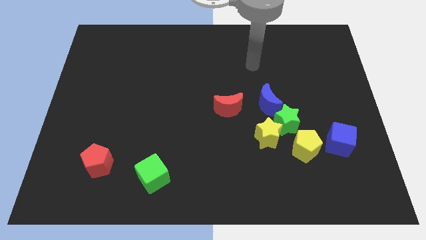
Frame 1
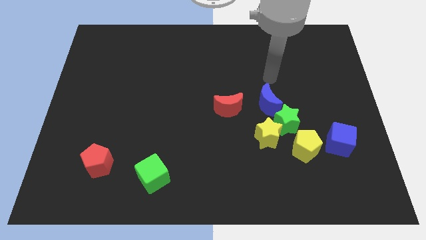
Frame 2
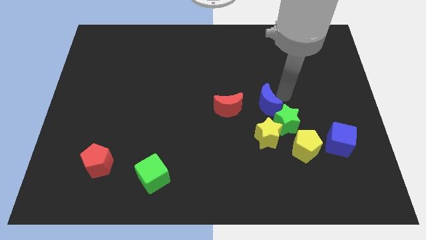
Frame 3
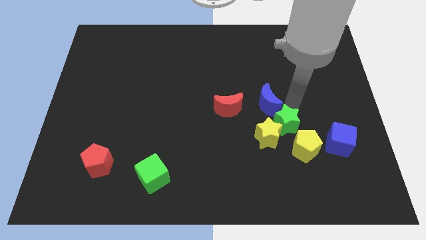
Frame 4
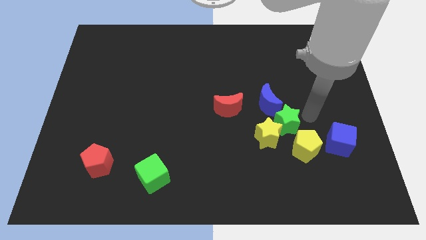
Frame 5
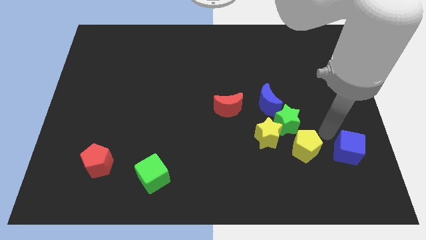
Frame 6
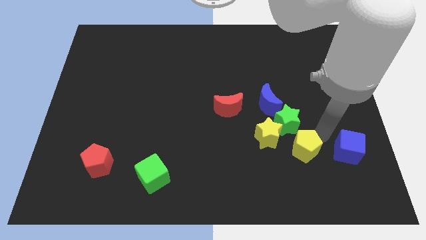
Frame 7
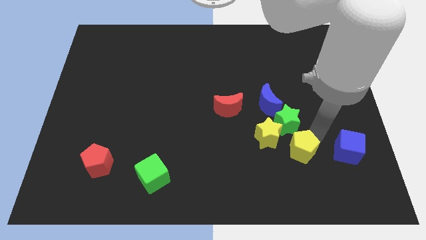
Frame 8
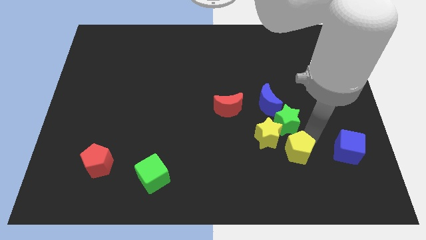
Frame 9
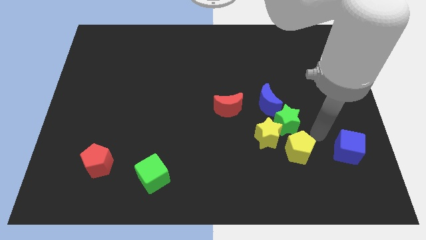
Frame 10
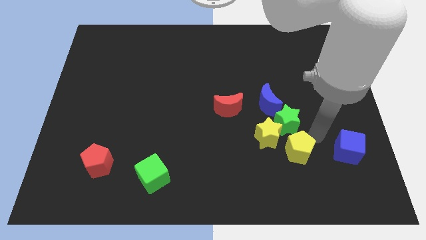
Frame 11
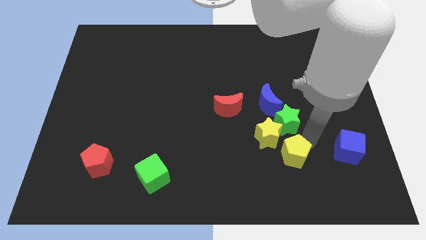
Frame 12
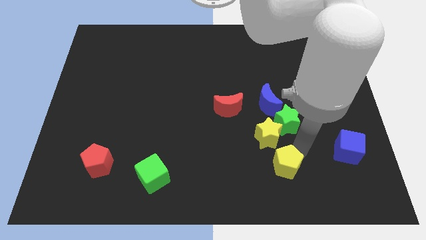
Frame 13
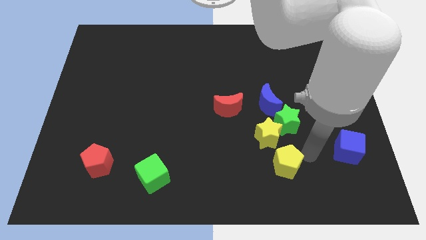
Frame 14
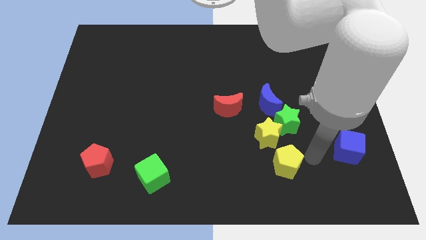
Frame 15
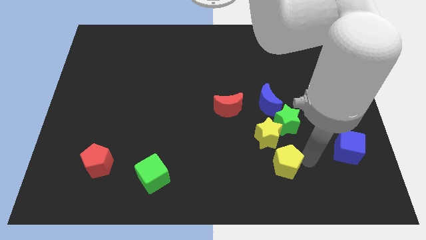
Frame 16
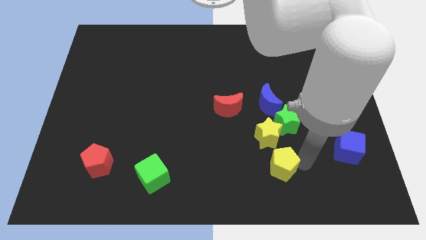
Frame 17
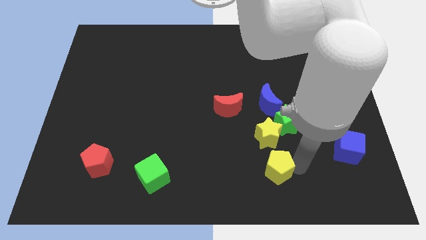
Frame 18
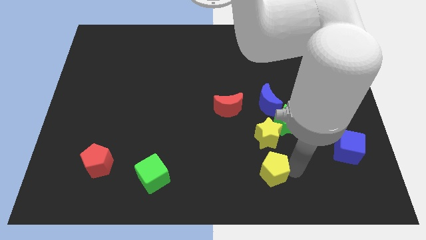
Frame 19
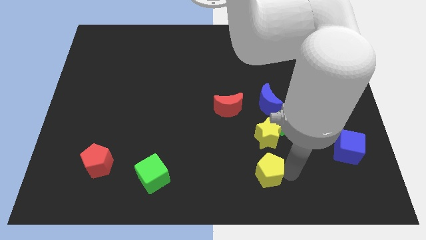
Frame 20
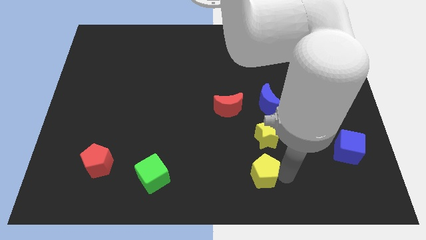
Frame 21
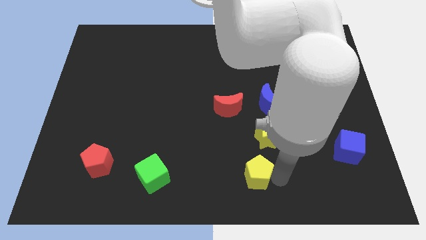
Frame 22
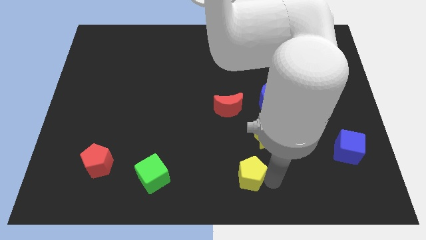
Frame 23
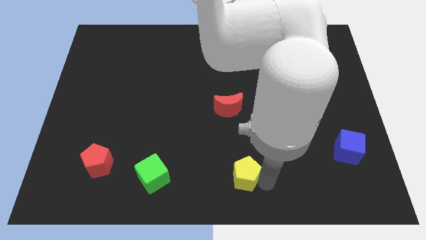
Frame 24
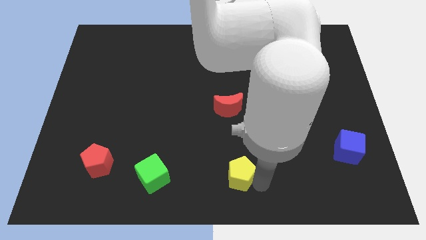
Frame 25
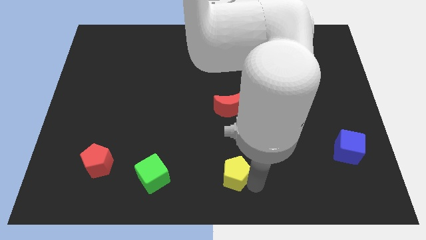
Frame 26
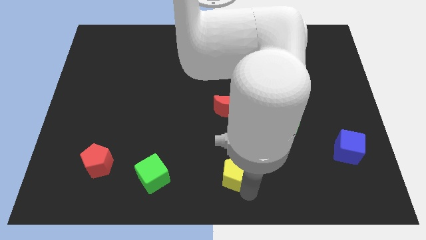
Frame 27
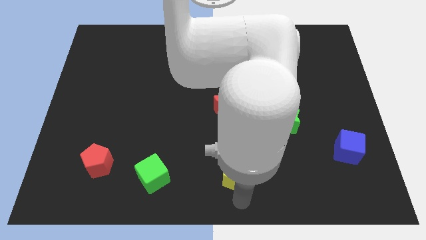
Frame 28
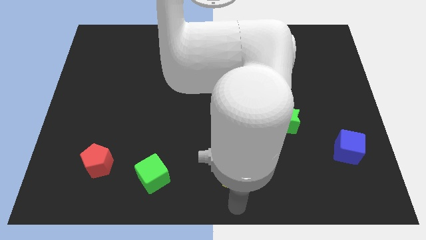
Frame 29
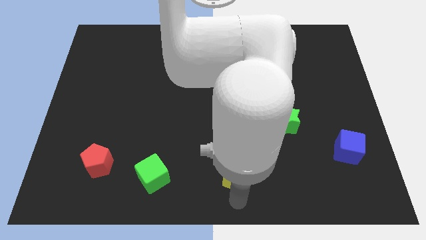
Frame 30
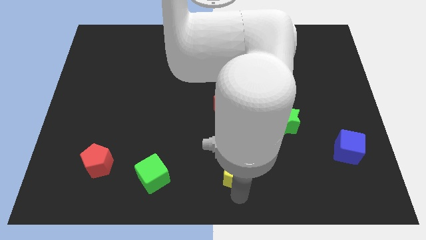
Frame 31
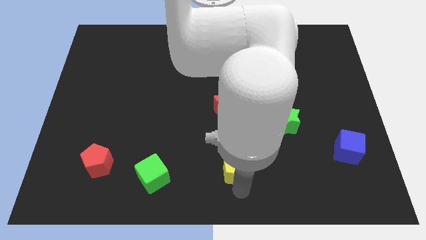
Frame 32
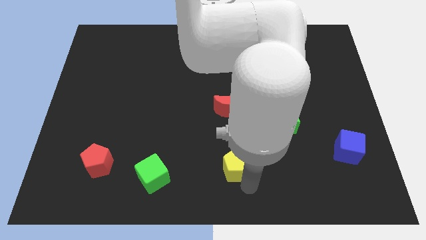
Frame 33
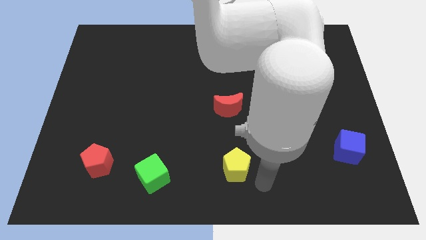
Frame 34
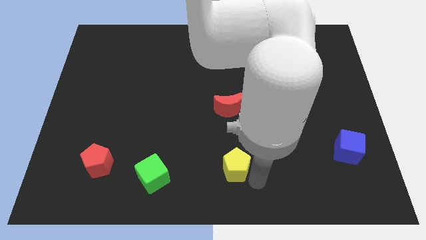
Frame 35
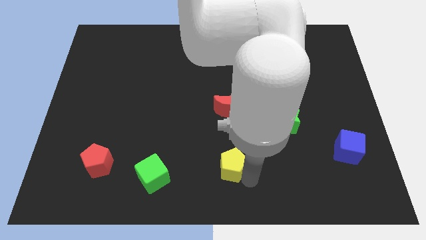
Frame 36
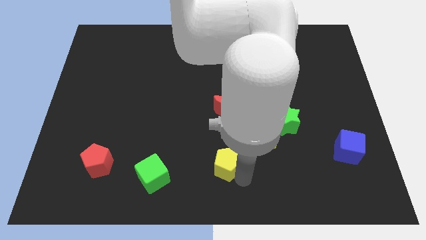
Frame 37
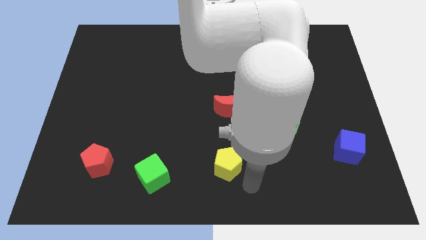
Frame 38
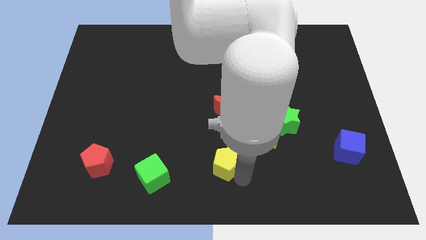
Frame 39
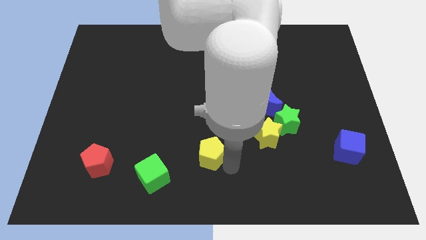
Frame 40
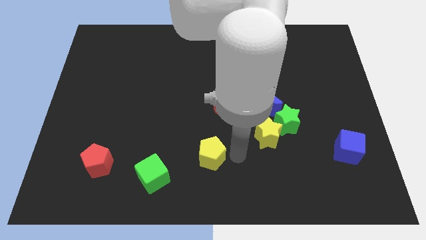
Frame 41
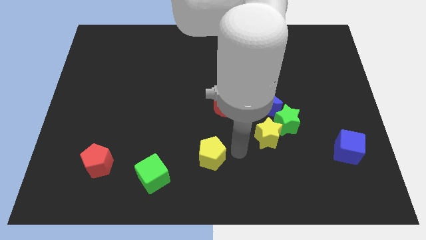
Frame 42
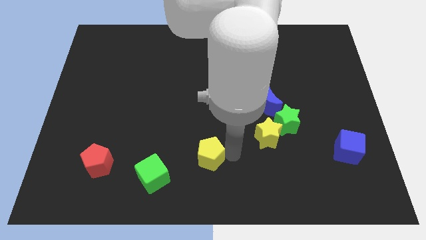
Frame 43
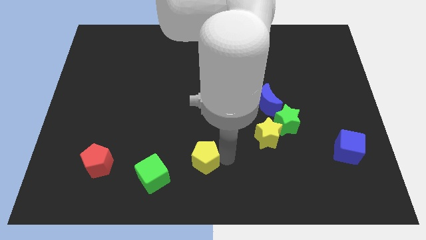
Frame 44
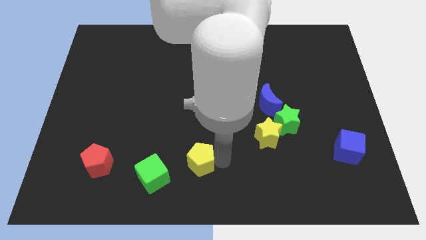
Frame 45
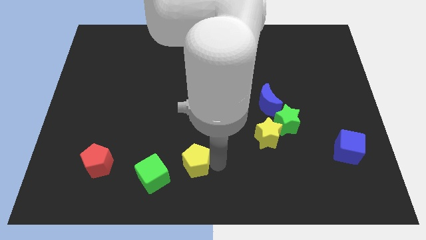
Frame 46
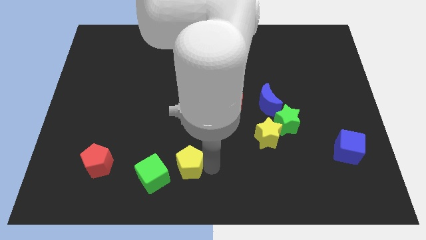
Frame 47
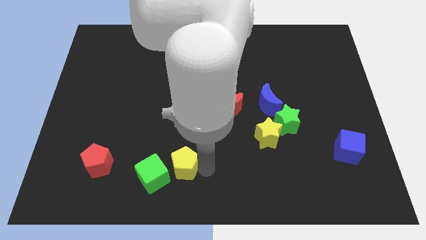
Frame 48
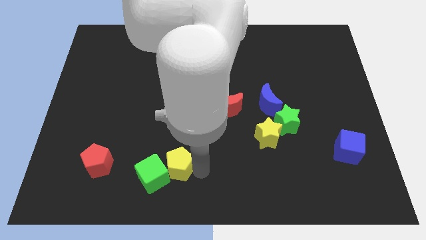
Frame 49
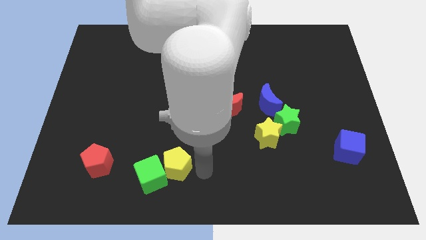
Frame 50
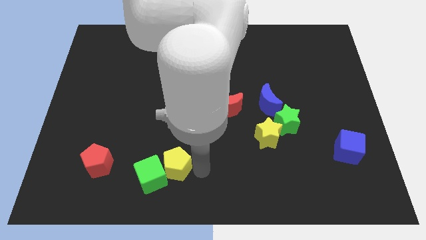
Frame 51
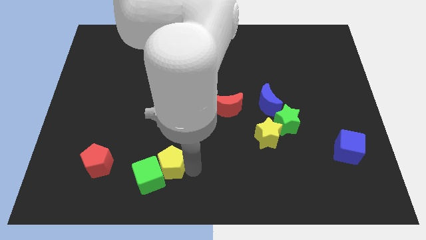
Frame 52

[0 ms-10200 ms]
move the yellow pentagon to the right of the red pentagon

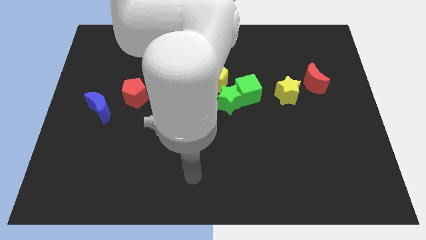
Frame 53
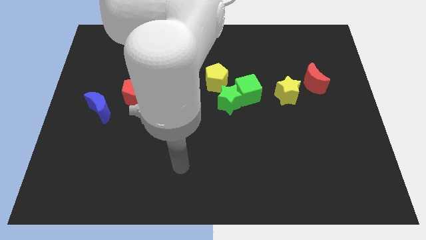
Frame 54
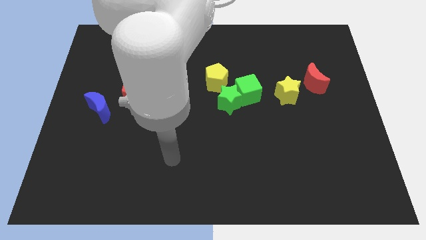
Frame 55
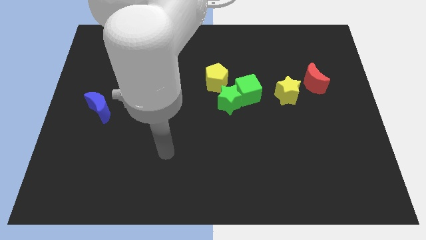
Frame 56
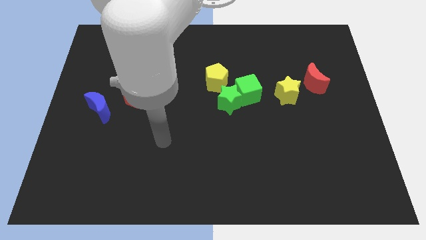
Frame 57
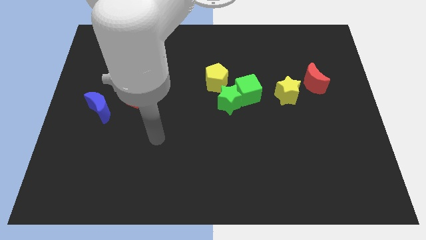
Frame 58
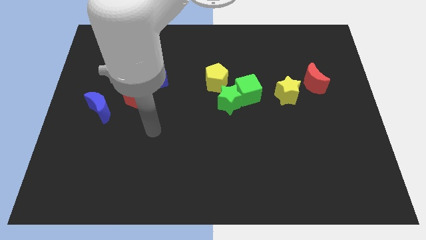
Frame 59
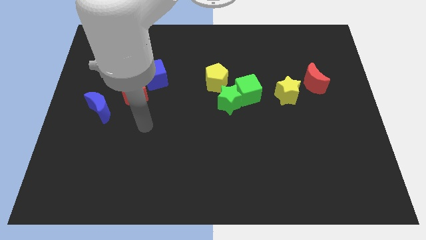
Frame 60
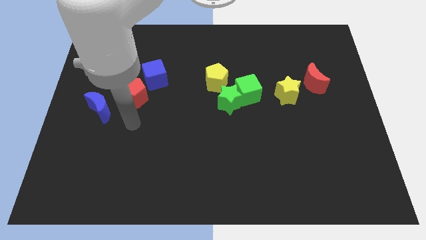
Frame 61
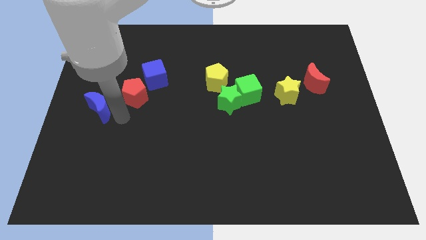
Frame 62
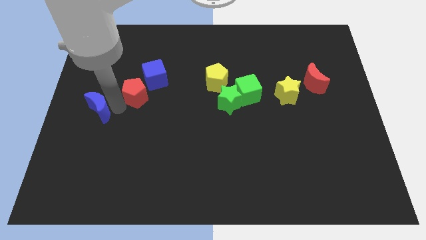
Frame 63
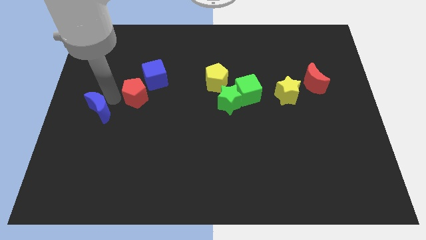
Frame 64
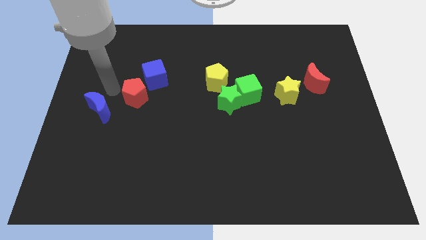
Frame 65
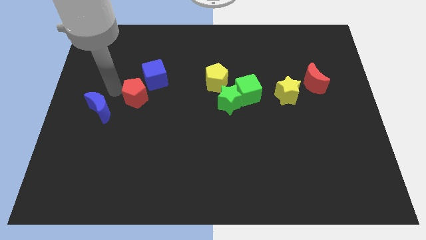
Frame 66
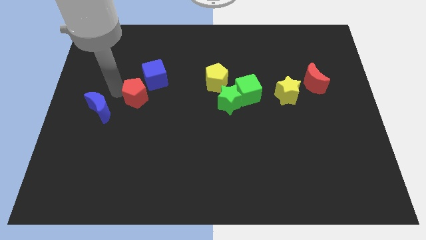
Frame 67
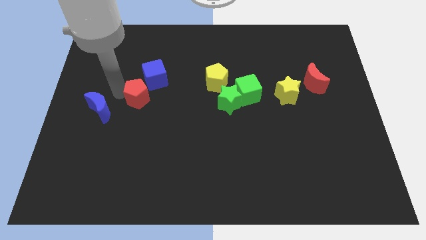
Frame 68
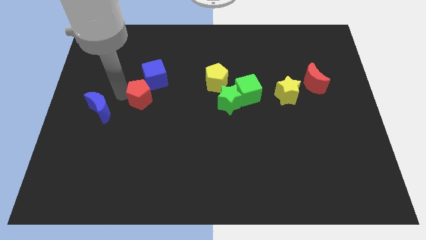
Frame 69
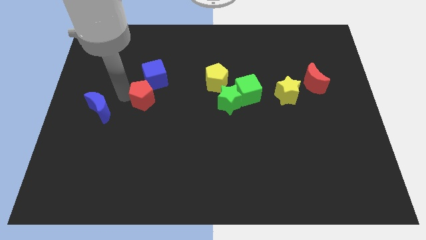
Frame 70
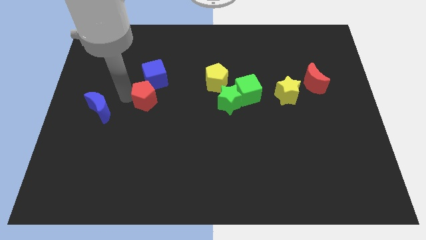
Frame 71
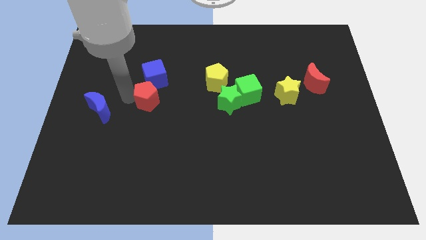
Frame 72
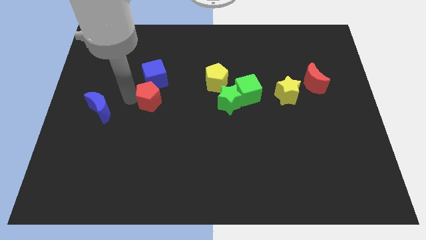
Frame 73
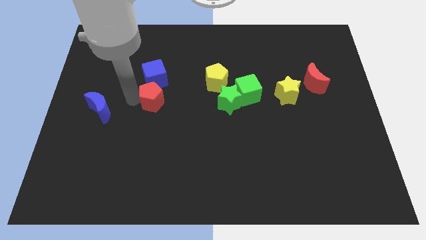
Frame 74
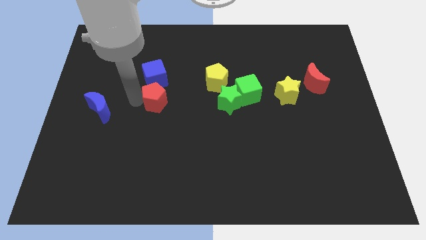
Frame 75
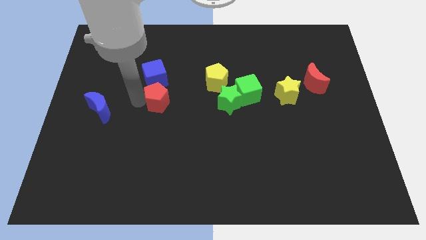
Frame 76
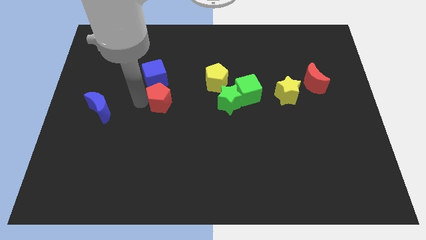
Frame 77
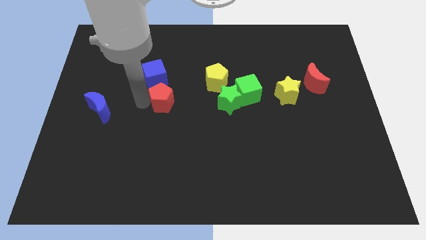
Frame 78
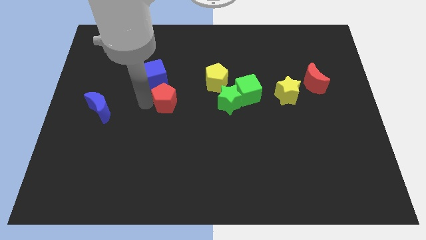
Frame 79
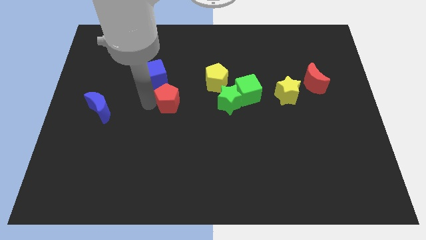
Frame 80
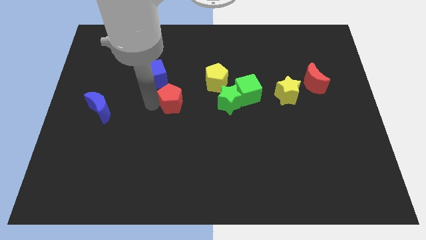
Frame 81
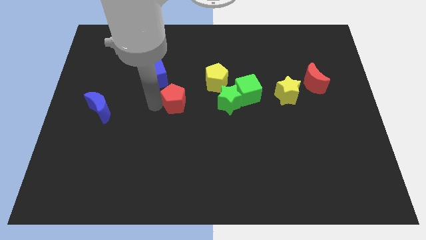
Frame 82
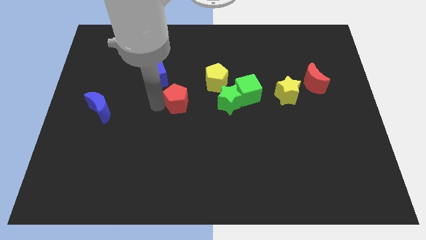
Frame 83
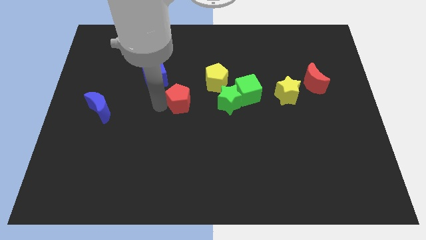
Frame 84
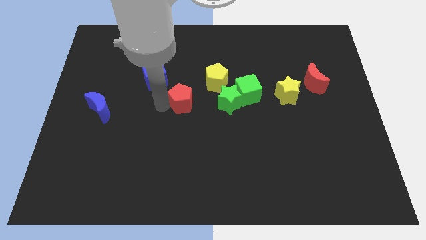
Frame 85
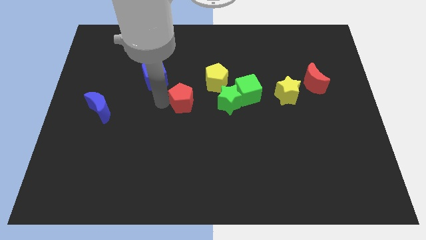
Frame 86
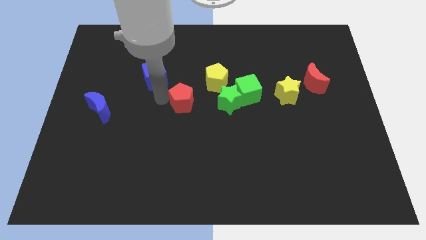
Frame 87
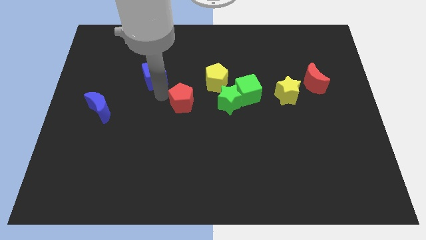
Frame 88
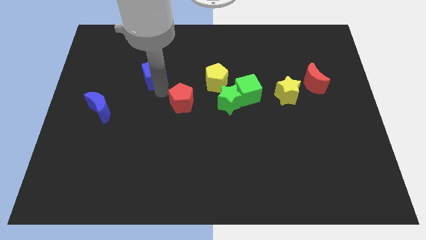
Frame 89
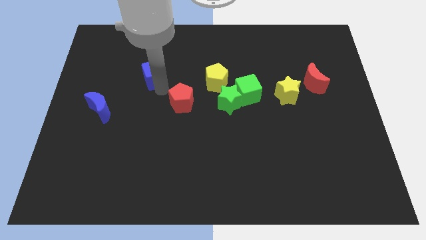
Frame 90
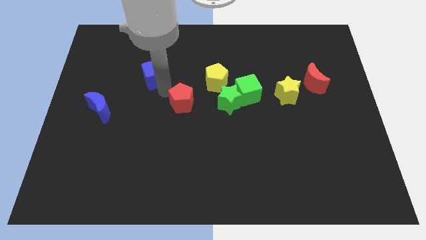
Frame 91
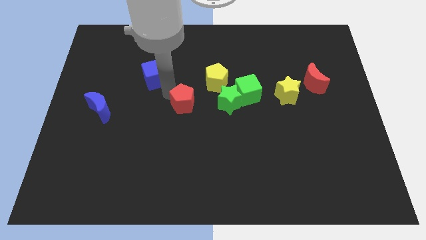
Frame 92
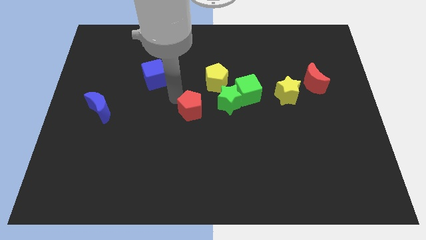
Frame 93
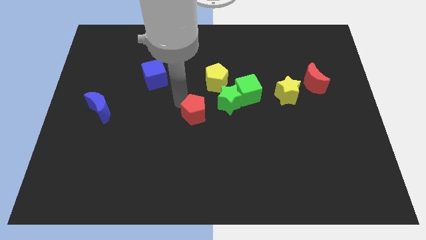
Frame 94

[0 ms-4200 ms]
move the red pentagon to the bottom of the yellow pentagon
